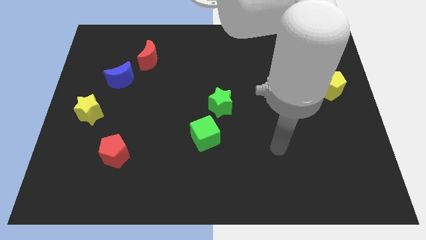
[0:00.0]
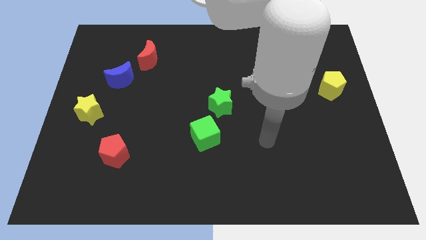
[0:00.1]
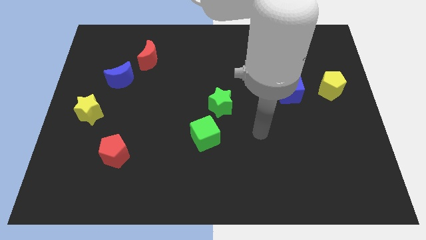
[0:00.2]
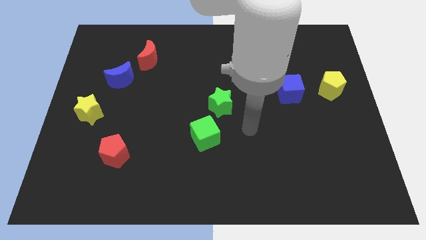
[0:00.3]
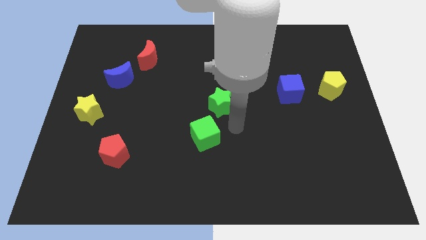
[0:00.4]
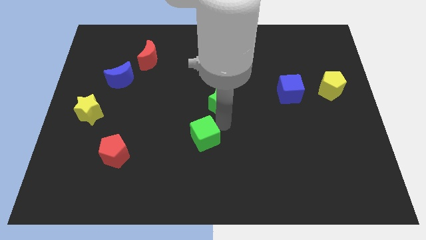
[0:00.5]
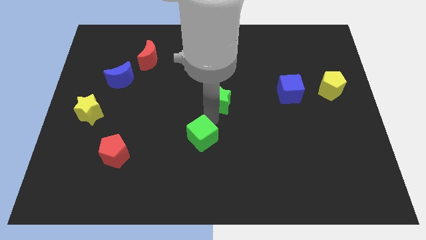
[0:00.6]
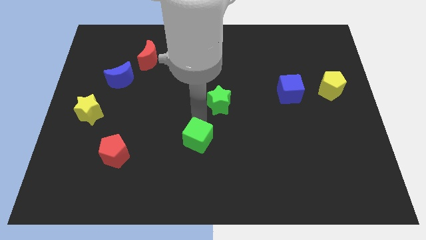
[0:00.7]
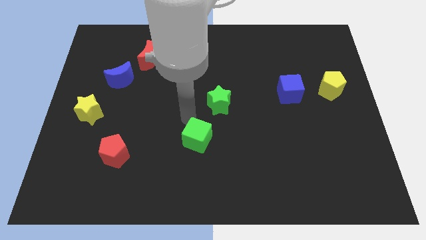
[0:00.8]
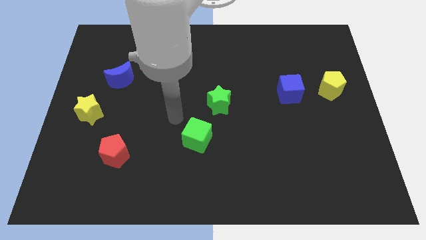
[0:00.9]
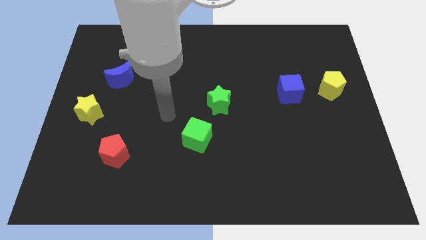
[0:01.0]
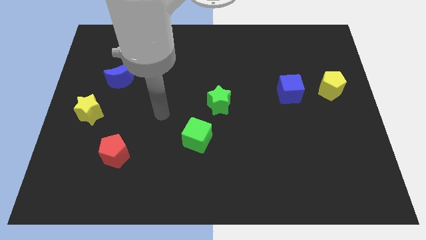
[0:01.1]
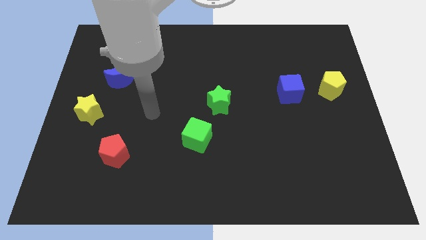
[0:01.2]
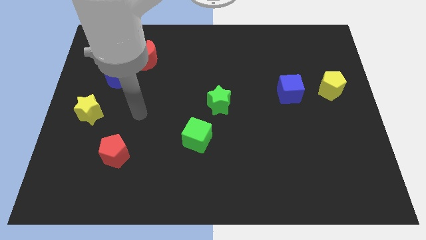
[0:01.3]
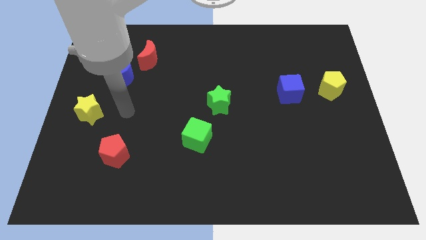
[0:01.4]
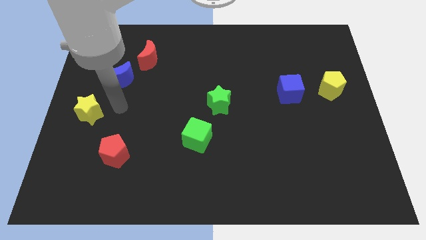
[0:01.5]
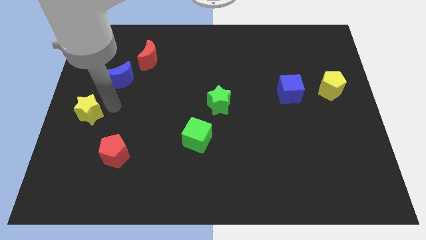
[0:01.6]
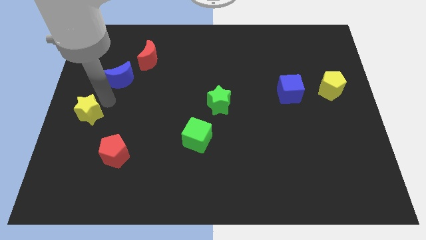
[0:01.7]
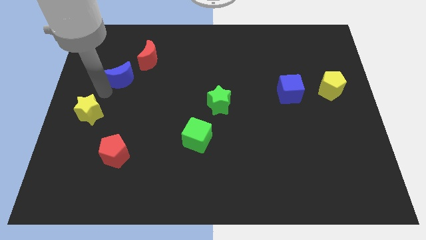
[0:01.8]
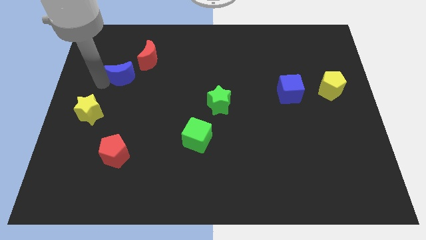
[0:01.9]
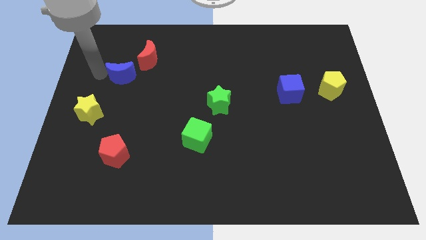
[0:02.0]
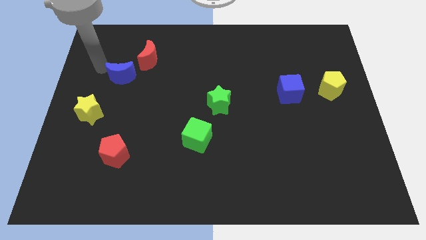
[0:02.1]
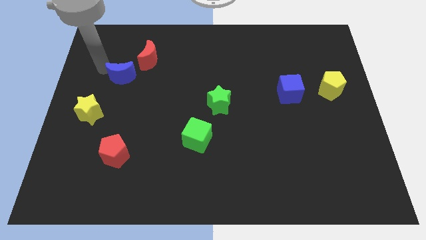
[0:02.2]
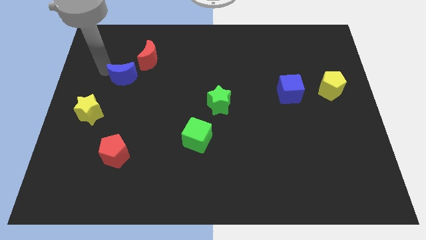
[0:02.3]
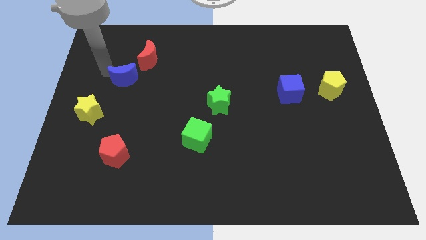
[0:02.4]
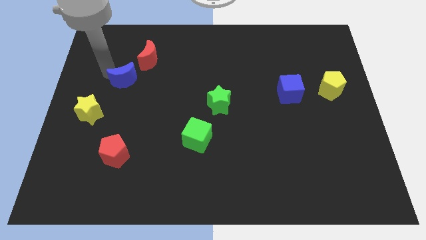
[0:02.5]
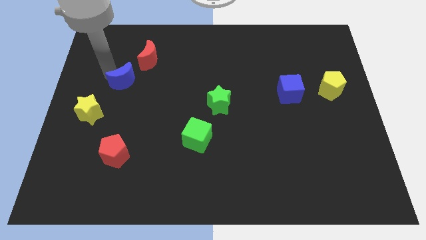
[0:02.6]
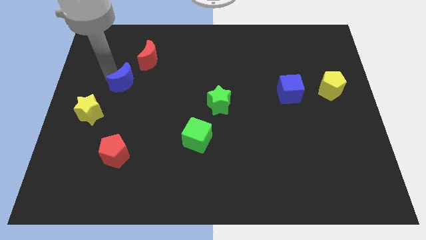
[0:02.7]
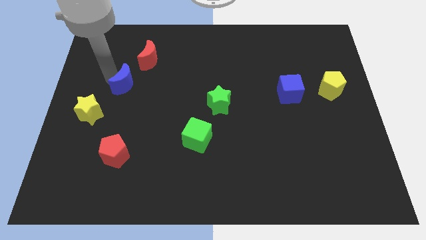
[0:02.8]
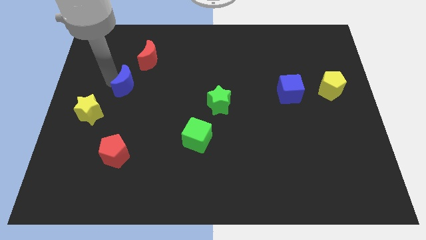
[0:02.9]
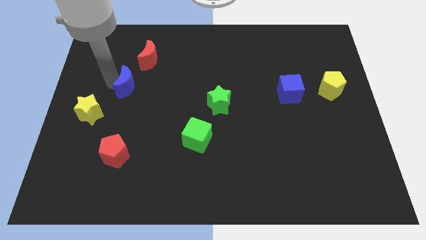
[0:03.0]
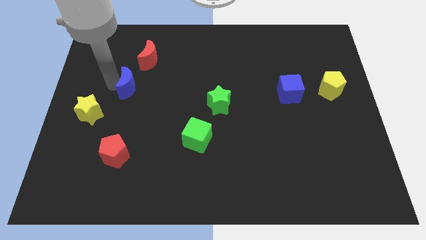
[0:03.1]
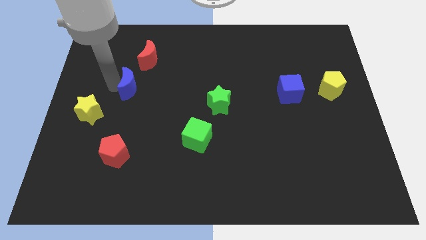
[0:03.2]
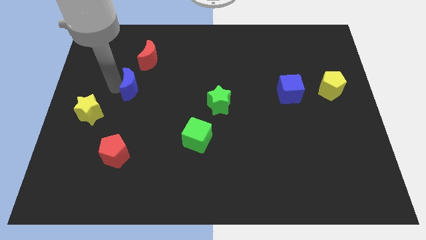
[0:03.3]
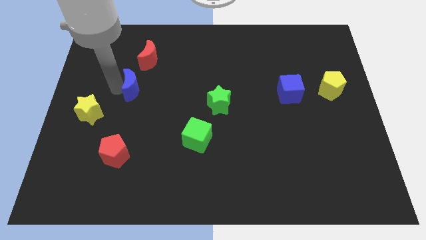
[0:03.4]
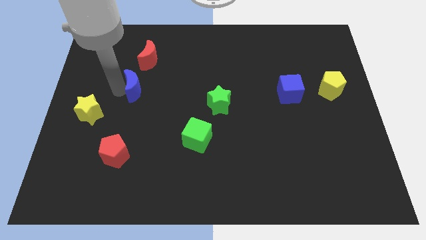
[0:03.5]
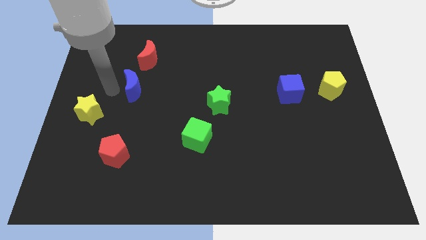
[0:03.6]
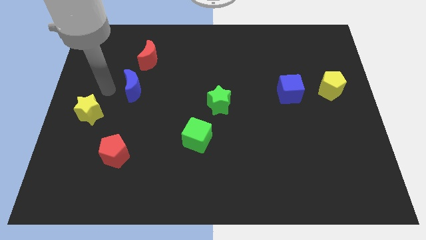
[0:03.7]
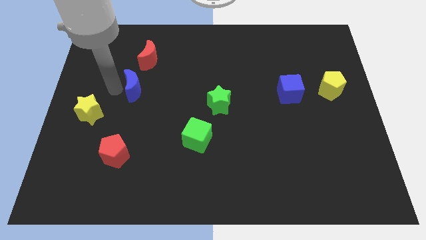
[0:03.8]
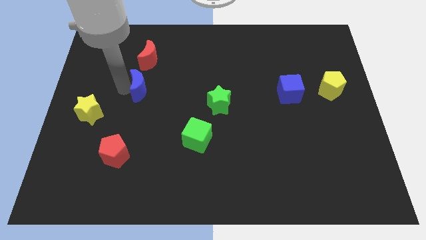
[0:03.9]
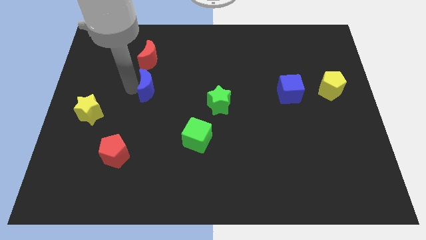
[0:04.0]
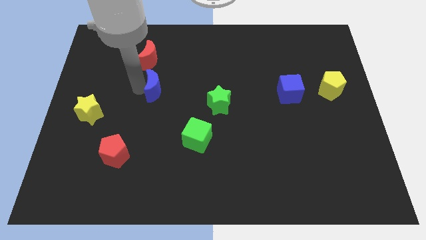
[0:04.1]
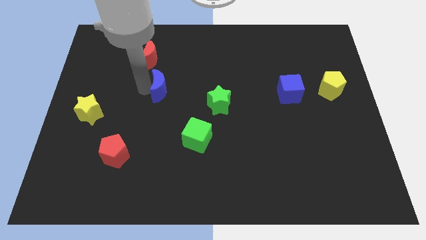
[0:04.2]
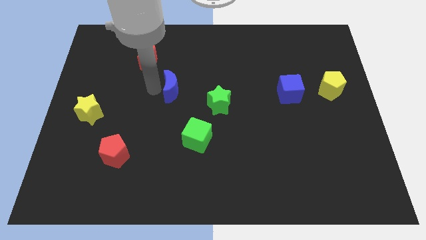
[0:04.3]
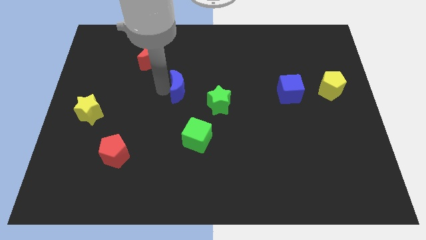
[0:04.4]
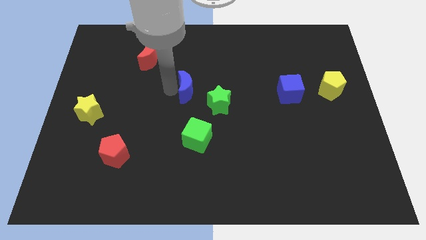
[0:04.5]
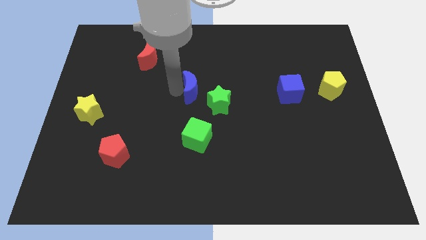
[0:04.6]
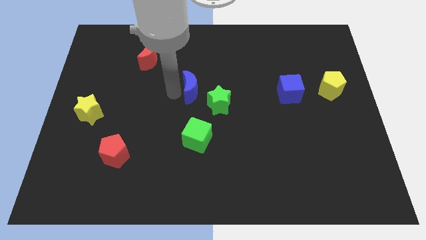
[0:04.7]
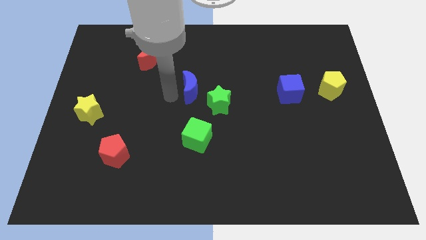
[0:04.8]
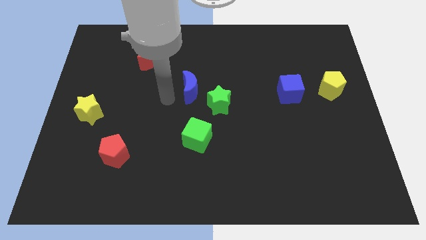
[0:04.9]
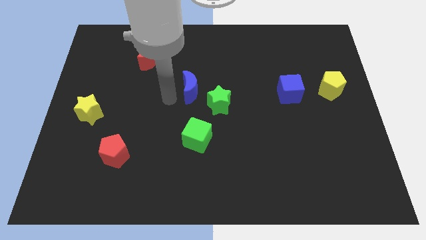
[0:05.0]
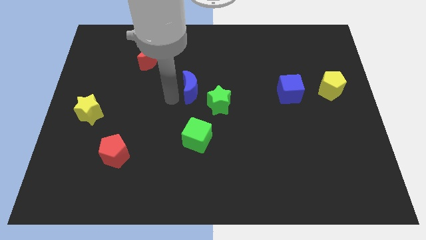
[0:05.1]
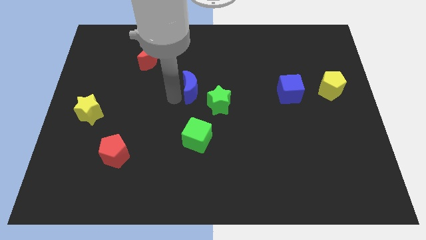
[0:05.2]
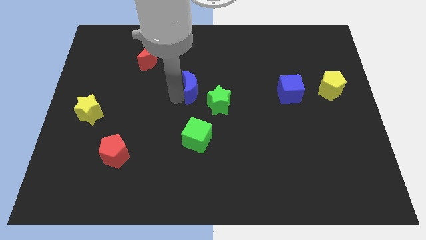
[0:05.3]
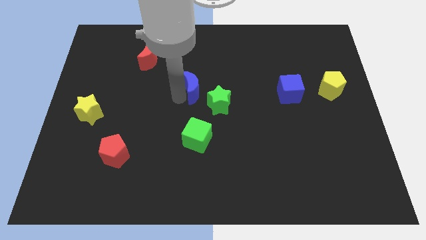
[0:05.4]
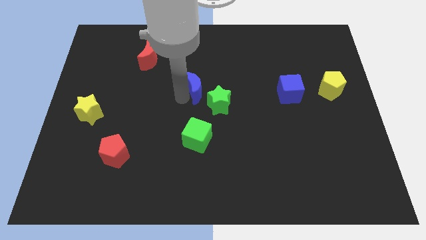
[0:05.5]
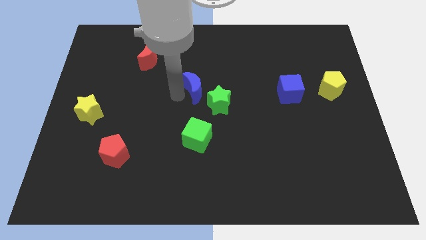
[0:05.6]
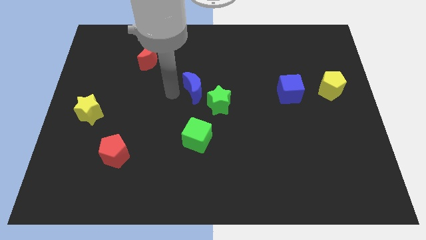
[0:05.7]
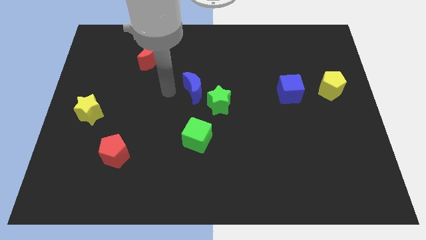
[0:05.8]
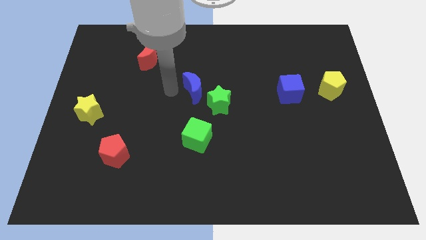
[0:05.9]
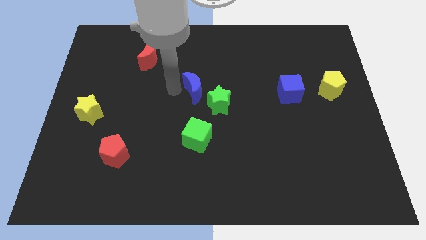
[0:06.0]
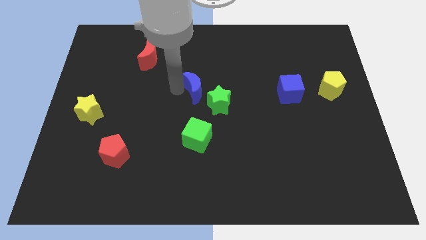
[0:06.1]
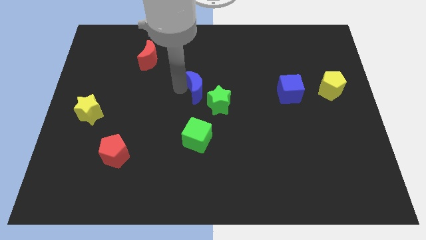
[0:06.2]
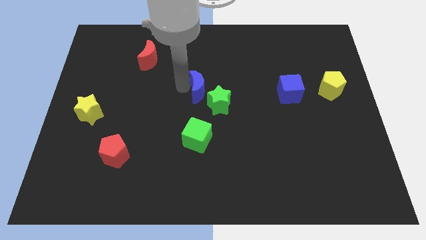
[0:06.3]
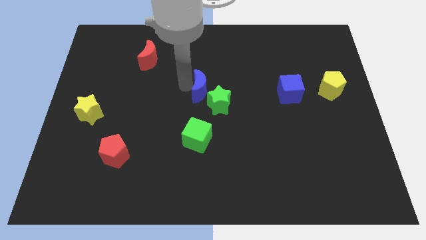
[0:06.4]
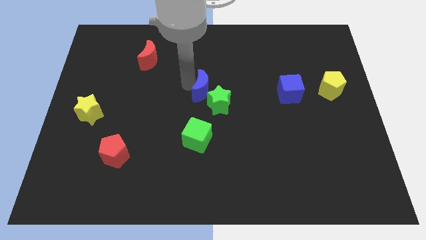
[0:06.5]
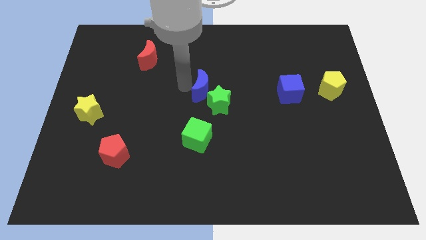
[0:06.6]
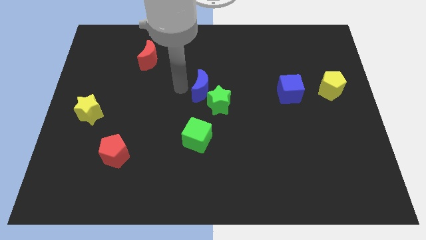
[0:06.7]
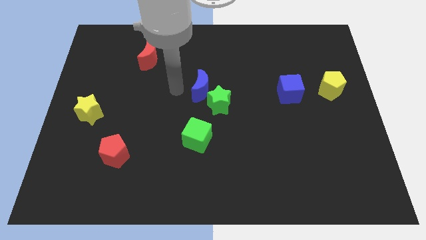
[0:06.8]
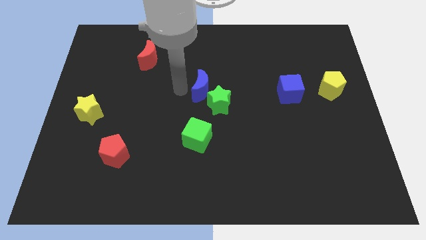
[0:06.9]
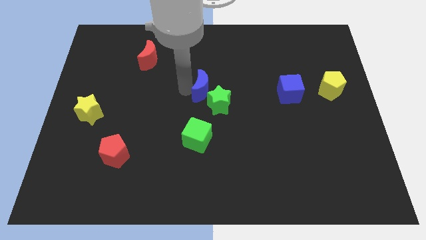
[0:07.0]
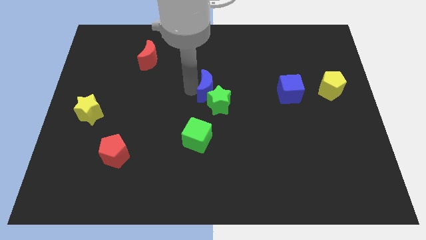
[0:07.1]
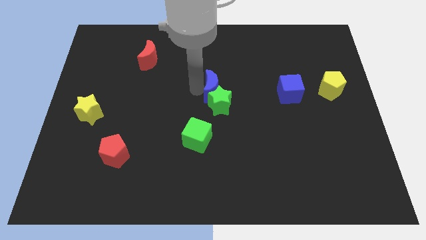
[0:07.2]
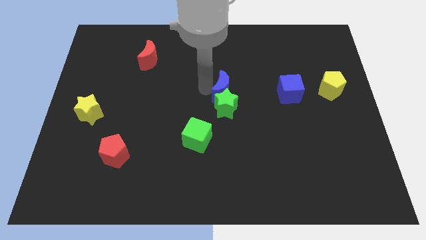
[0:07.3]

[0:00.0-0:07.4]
move the blue moon to the left of the blue cube
